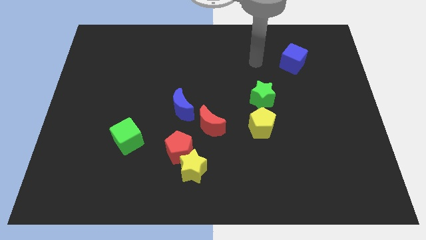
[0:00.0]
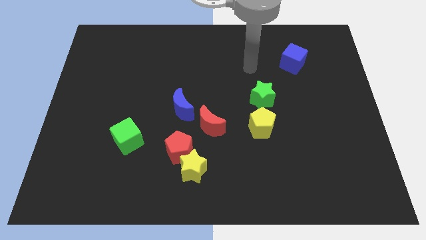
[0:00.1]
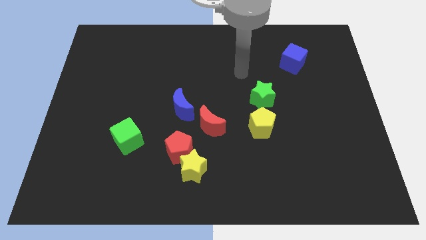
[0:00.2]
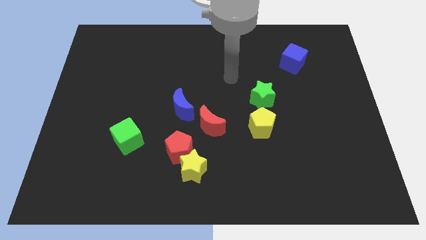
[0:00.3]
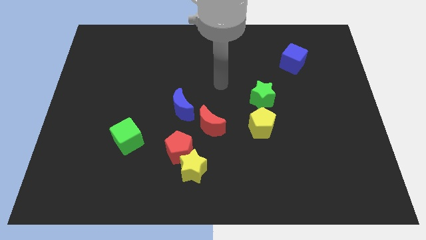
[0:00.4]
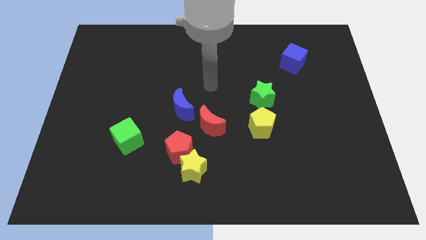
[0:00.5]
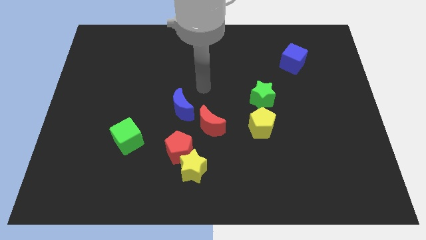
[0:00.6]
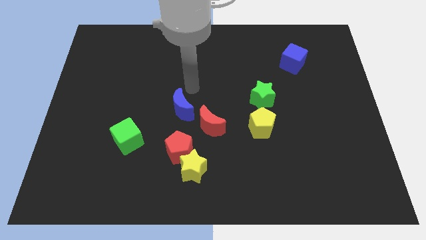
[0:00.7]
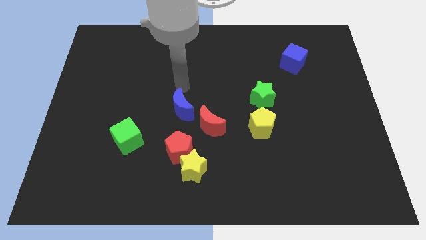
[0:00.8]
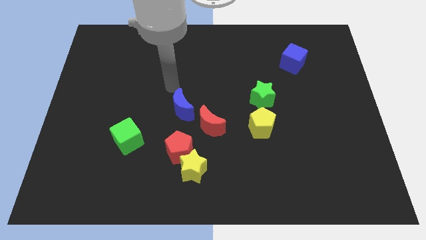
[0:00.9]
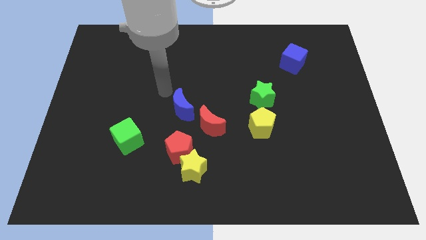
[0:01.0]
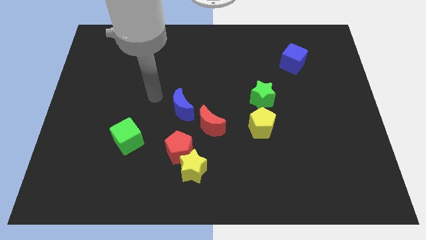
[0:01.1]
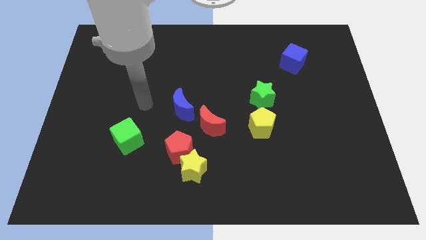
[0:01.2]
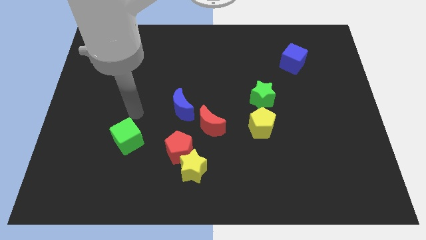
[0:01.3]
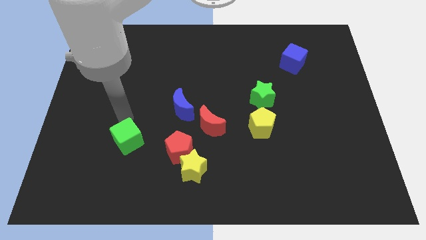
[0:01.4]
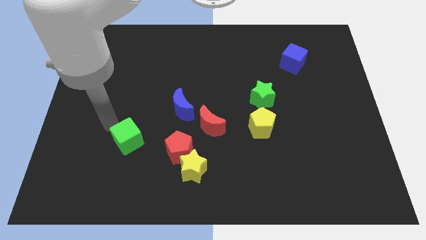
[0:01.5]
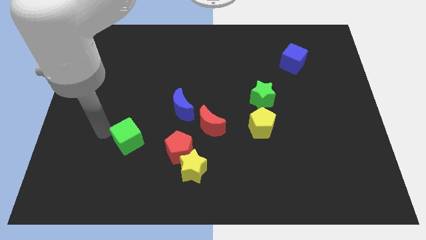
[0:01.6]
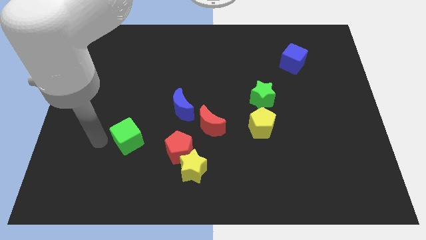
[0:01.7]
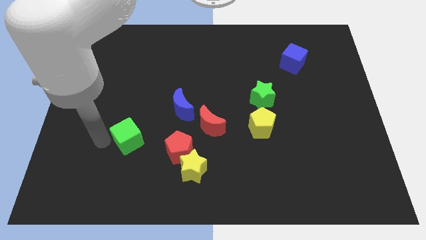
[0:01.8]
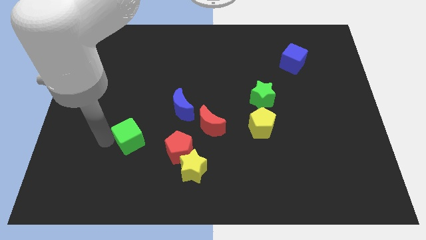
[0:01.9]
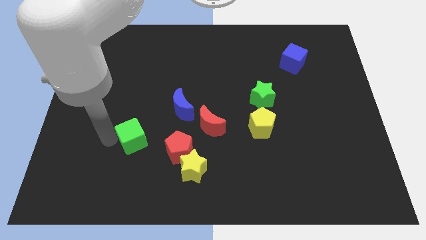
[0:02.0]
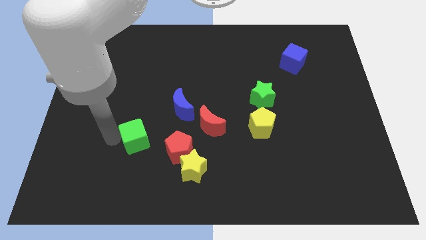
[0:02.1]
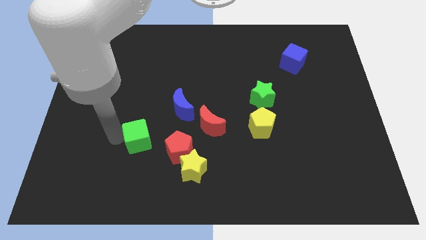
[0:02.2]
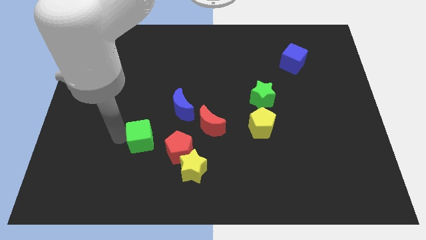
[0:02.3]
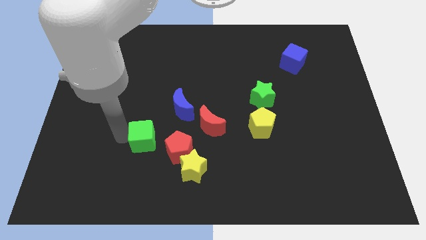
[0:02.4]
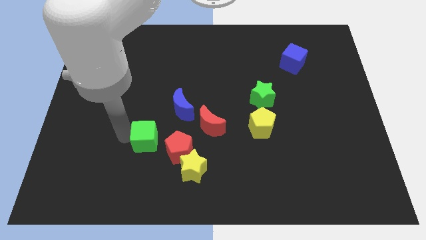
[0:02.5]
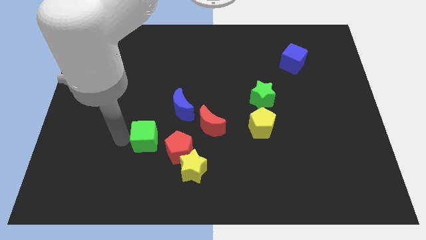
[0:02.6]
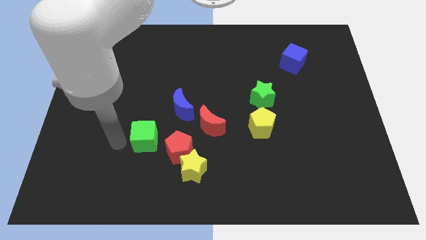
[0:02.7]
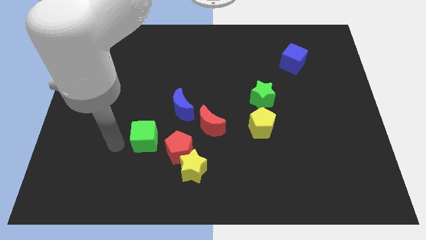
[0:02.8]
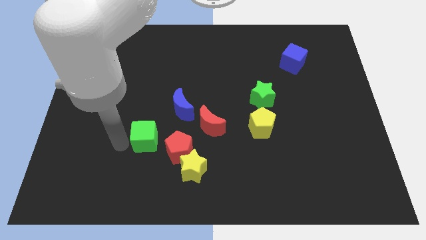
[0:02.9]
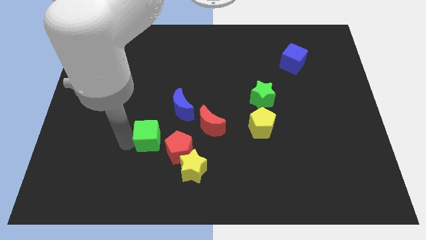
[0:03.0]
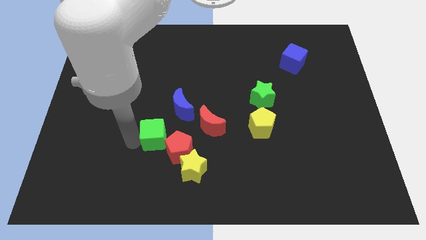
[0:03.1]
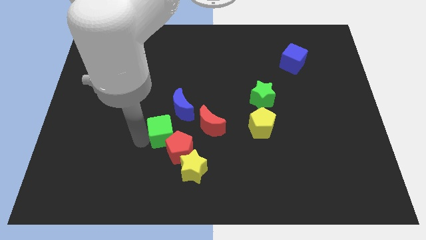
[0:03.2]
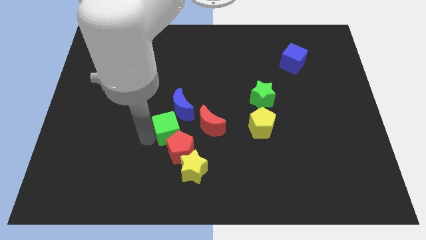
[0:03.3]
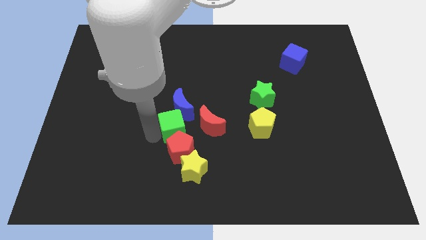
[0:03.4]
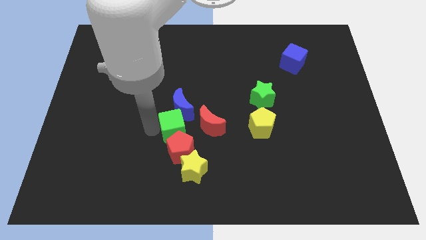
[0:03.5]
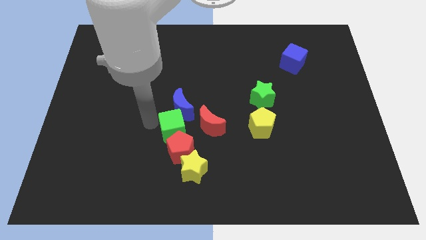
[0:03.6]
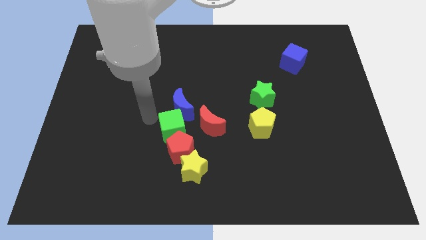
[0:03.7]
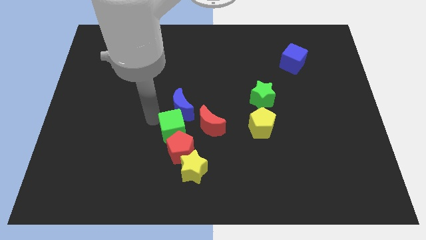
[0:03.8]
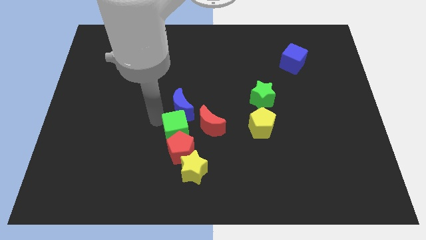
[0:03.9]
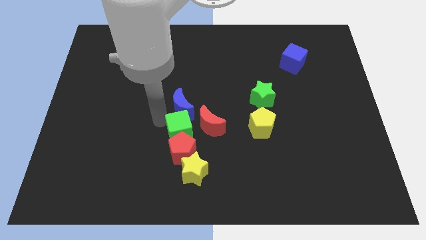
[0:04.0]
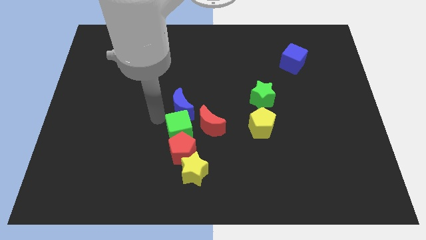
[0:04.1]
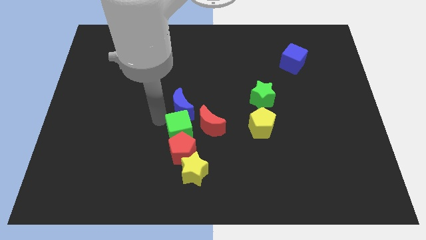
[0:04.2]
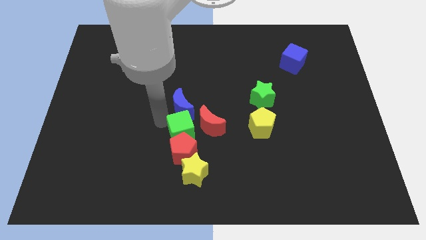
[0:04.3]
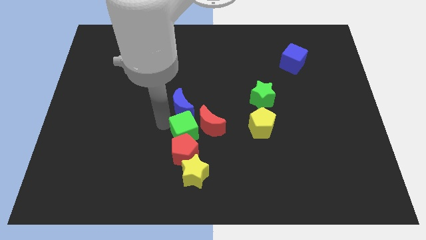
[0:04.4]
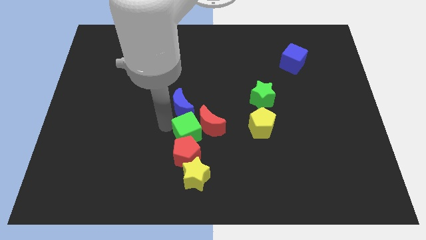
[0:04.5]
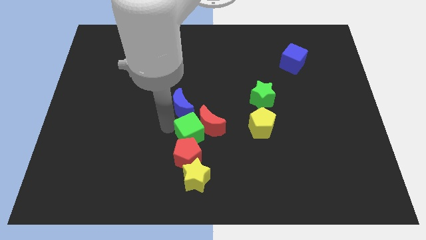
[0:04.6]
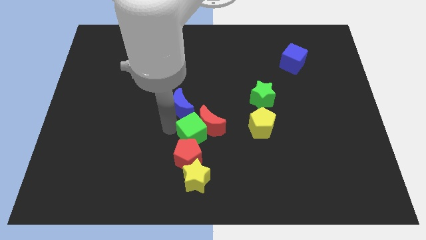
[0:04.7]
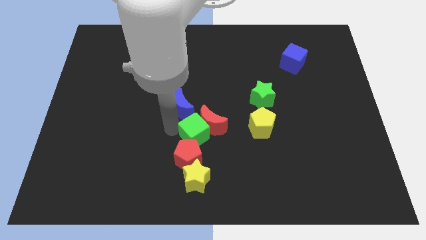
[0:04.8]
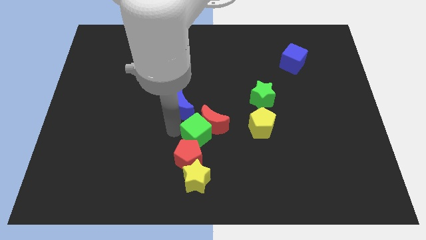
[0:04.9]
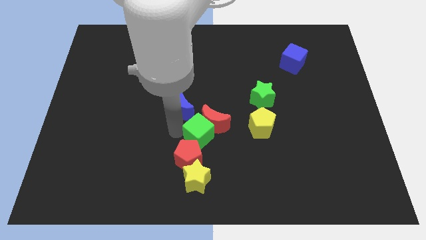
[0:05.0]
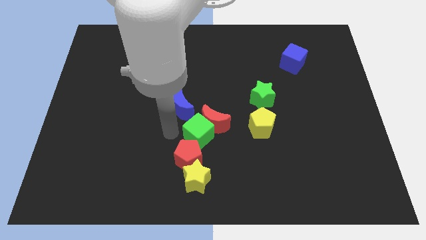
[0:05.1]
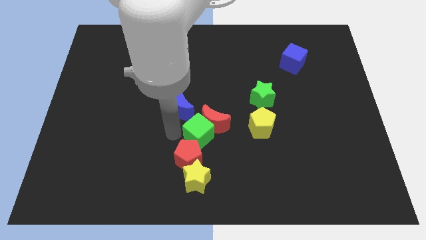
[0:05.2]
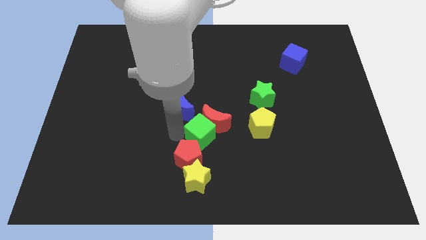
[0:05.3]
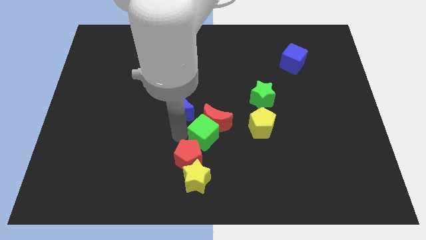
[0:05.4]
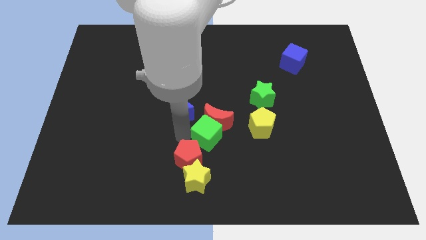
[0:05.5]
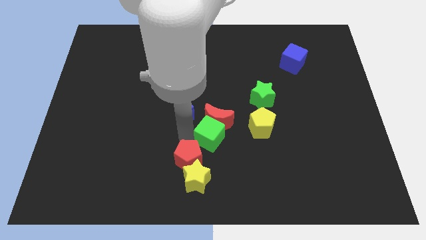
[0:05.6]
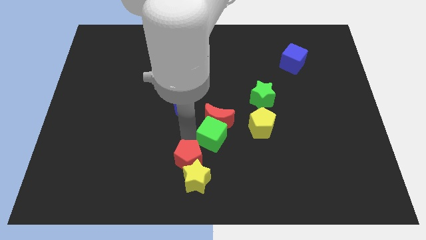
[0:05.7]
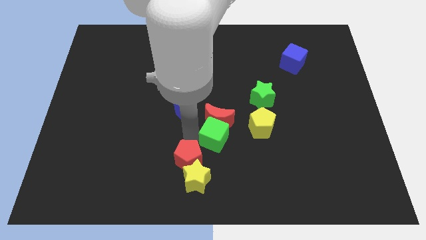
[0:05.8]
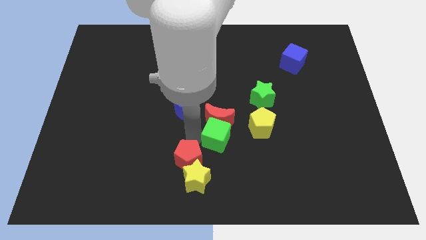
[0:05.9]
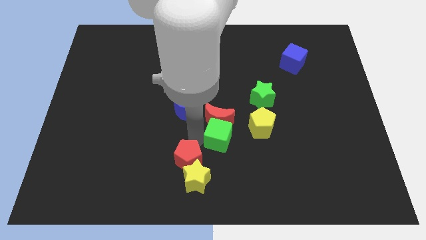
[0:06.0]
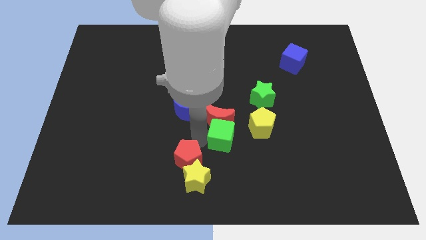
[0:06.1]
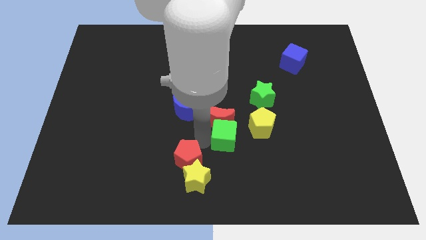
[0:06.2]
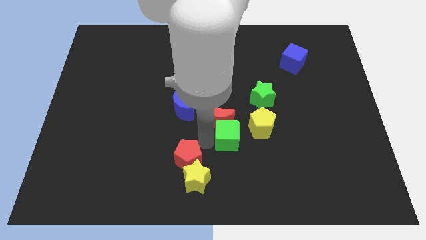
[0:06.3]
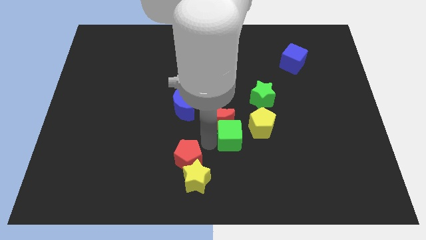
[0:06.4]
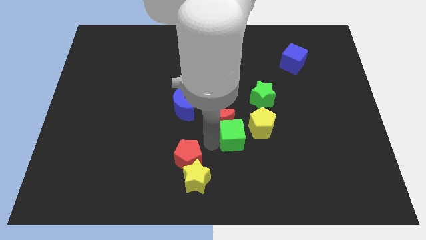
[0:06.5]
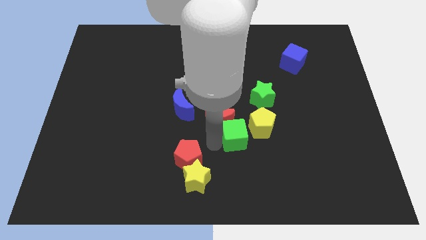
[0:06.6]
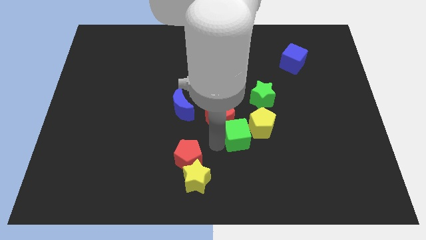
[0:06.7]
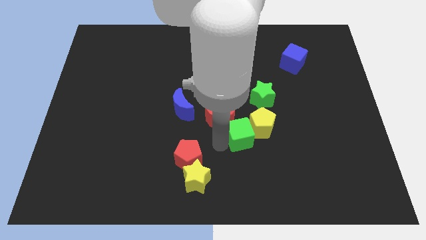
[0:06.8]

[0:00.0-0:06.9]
move the green cube next to the yellow pentagon
